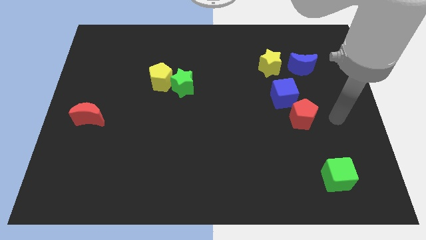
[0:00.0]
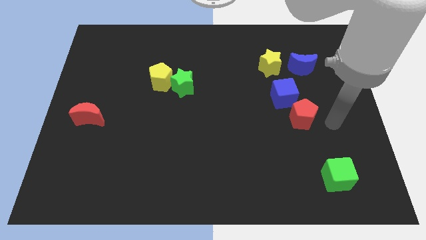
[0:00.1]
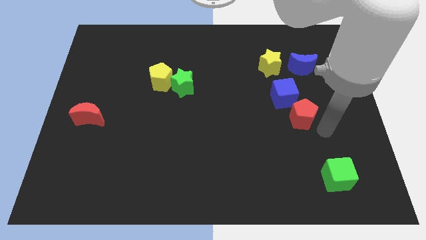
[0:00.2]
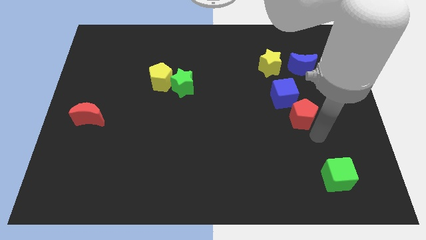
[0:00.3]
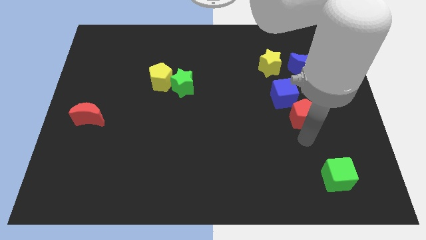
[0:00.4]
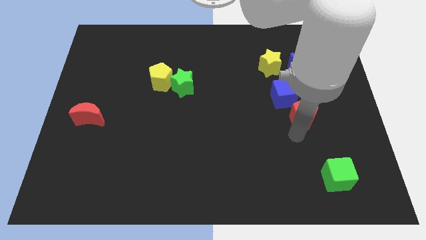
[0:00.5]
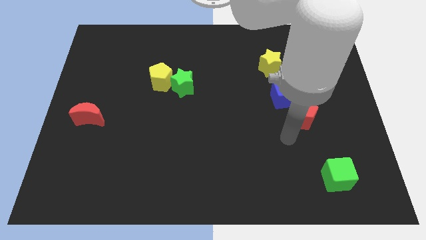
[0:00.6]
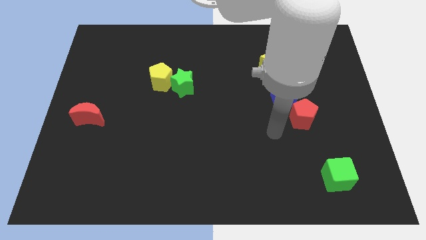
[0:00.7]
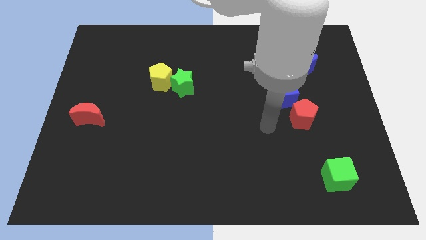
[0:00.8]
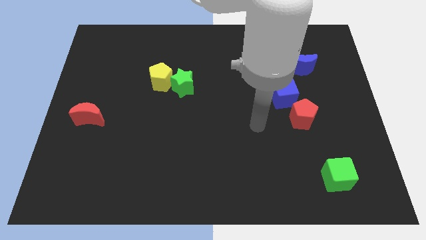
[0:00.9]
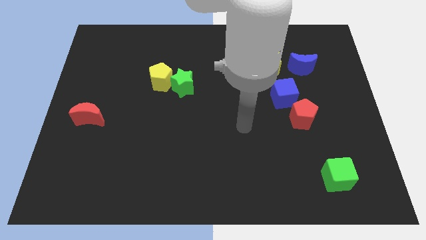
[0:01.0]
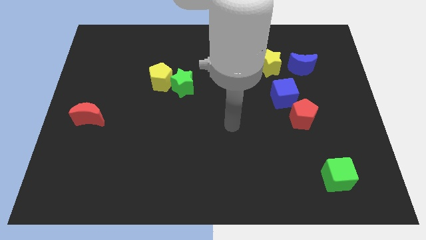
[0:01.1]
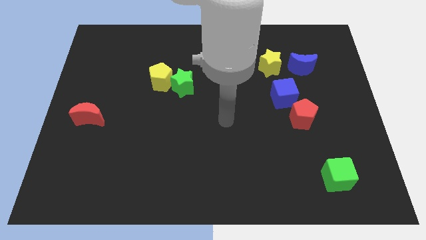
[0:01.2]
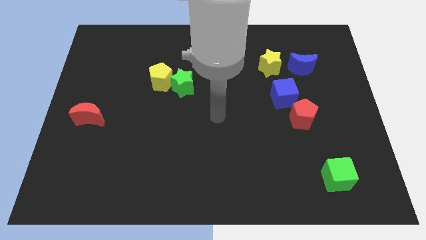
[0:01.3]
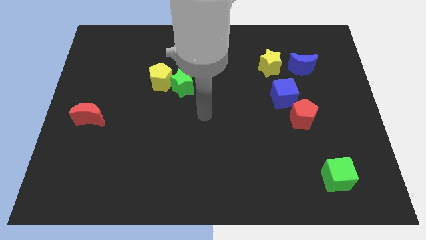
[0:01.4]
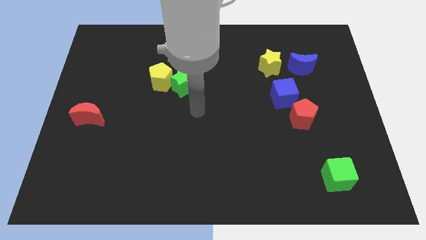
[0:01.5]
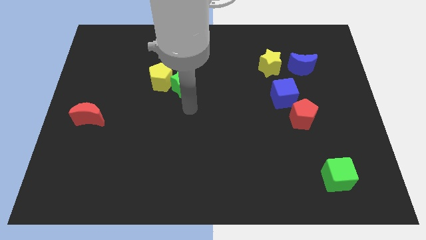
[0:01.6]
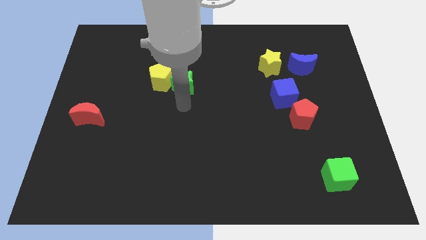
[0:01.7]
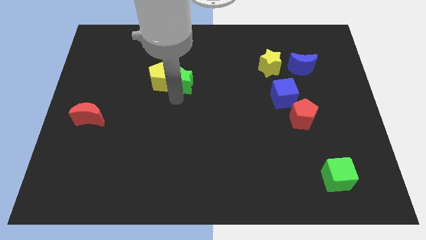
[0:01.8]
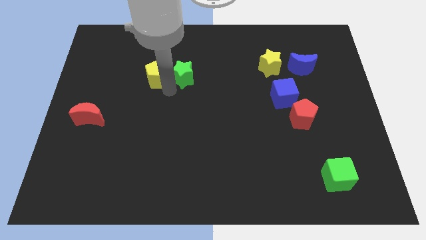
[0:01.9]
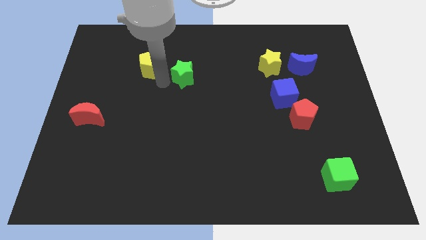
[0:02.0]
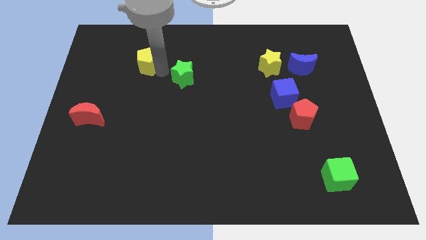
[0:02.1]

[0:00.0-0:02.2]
move the green star away from the yellow pentagon

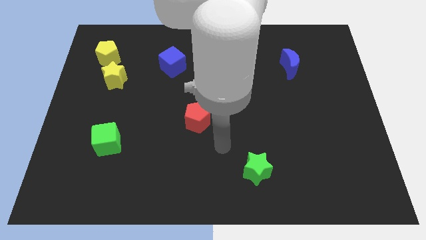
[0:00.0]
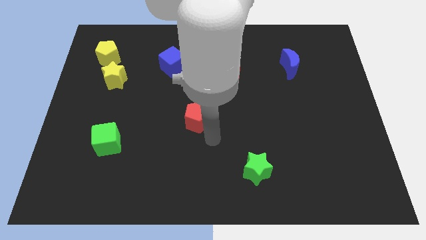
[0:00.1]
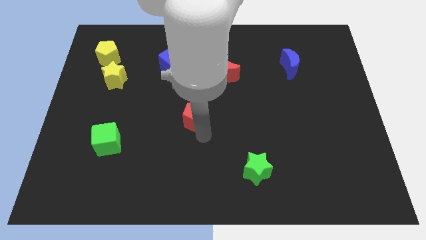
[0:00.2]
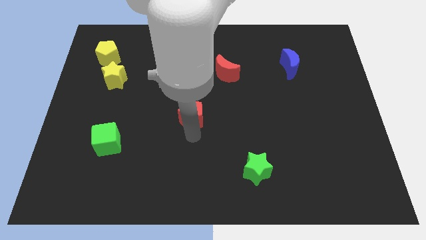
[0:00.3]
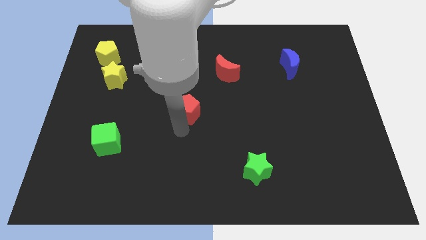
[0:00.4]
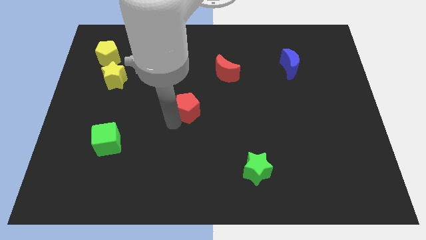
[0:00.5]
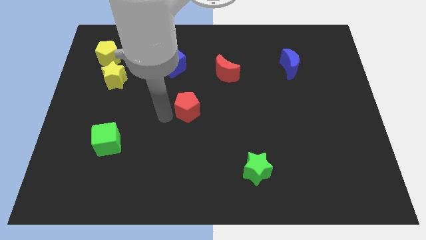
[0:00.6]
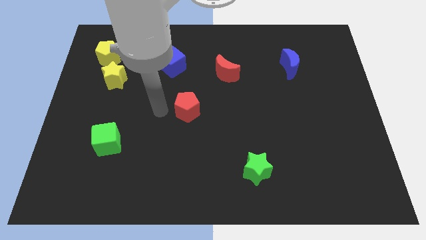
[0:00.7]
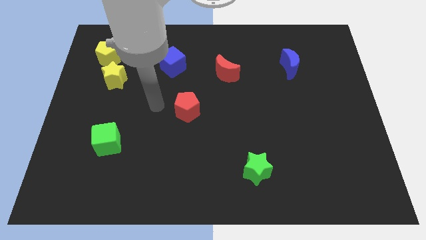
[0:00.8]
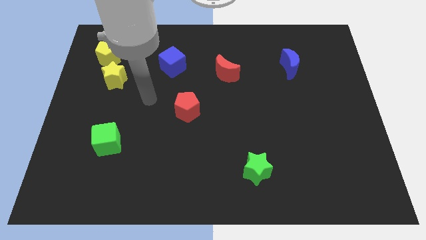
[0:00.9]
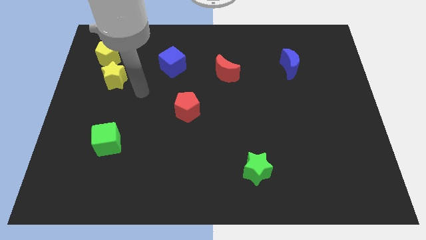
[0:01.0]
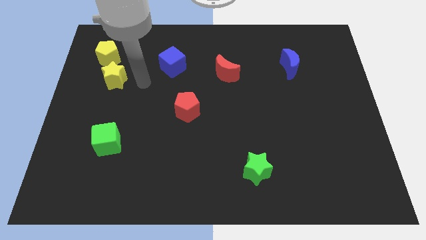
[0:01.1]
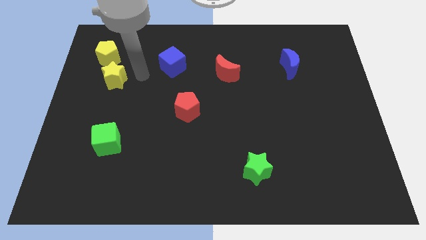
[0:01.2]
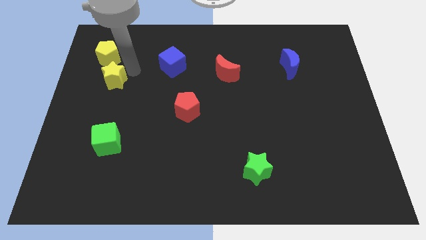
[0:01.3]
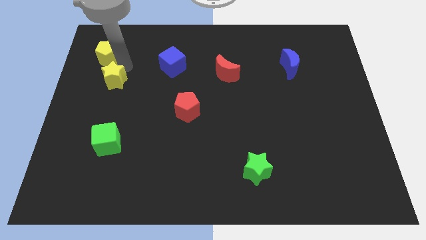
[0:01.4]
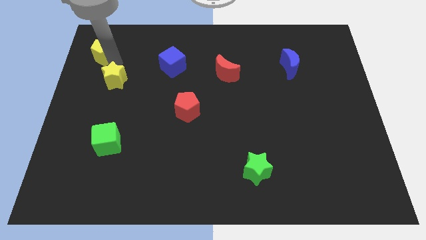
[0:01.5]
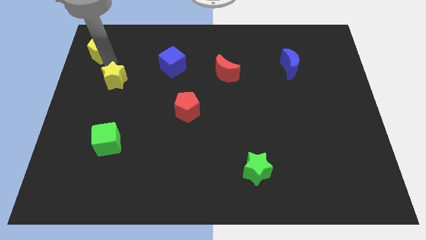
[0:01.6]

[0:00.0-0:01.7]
move the yellow star away from the yellow pentagon

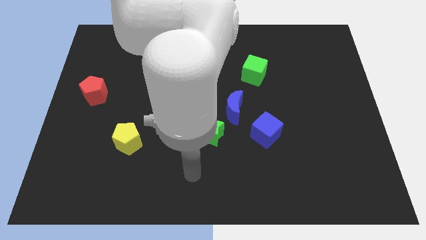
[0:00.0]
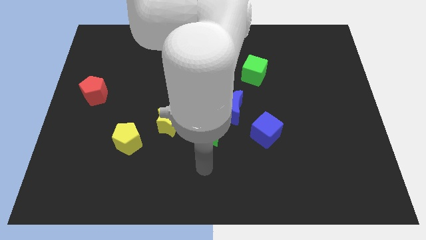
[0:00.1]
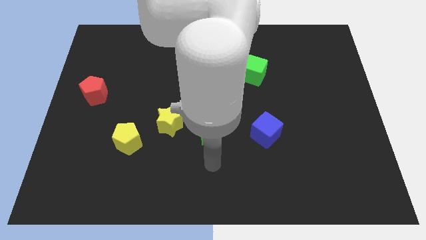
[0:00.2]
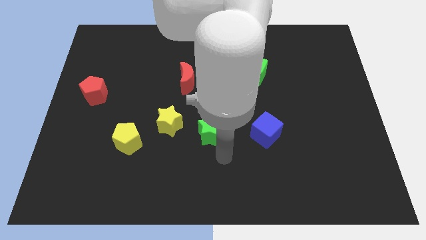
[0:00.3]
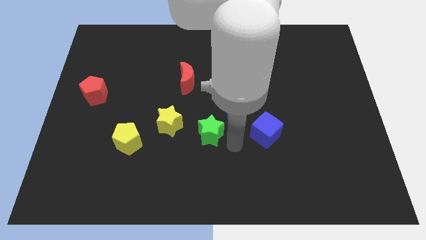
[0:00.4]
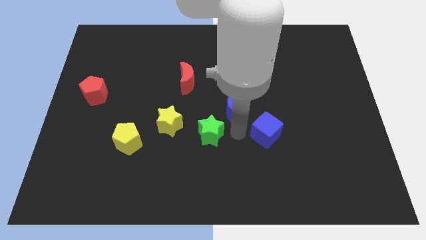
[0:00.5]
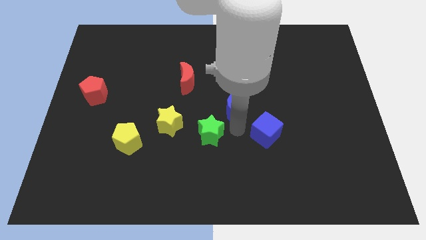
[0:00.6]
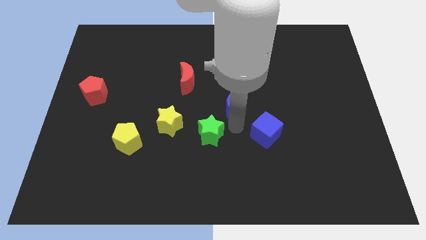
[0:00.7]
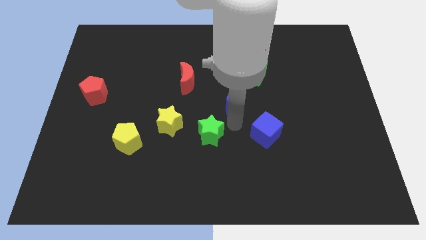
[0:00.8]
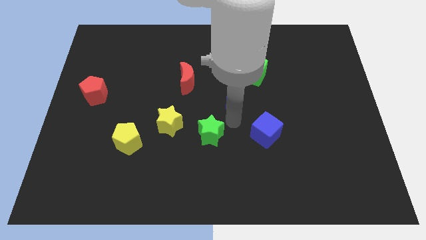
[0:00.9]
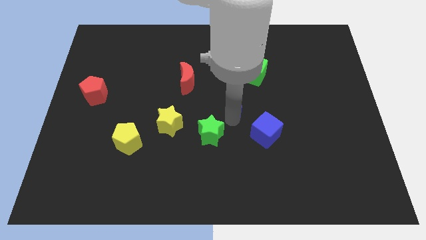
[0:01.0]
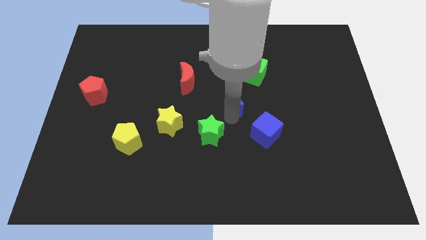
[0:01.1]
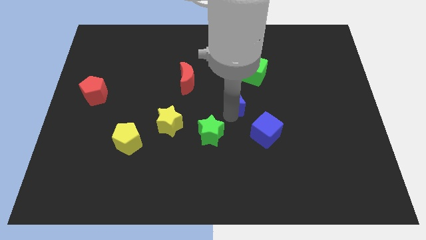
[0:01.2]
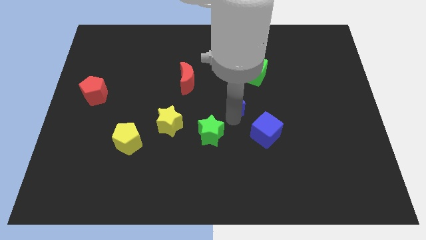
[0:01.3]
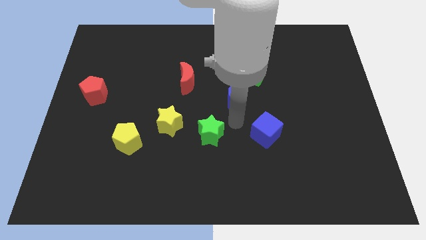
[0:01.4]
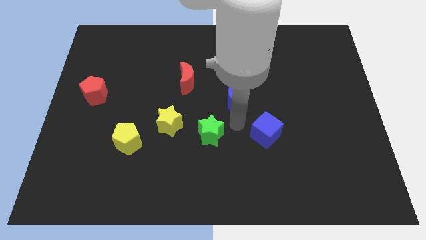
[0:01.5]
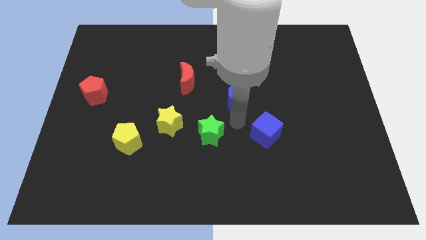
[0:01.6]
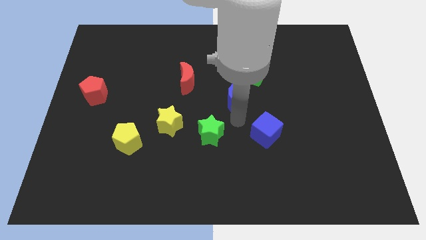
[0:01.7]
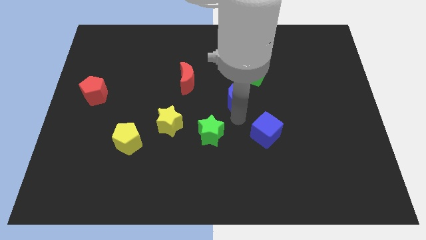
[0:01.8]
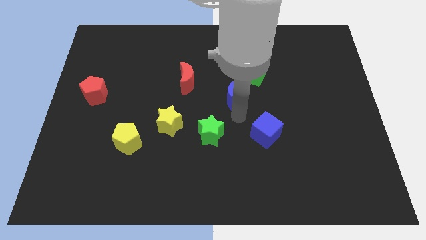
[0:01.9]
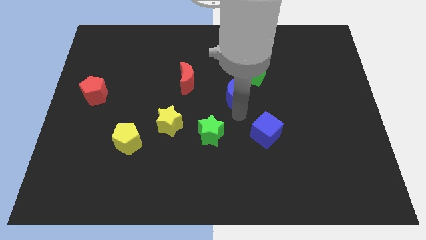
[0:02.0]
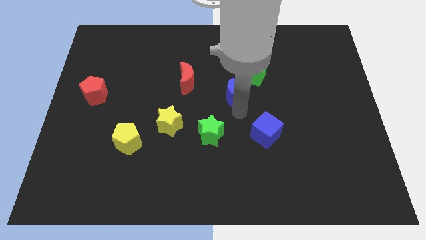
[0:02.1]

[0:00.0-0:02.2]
move the blue moon away from the green star and blue cube

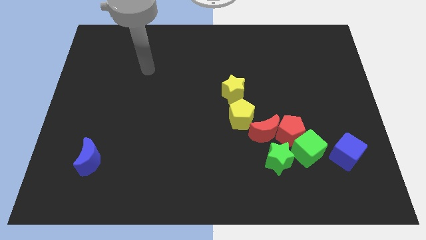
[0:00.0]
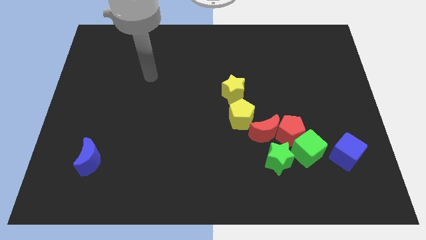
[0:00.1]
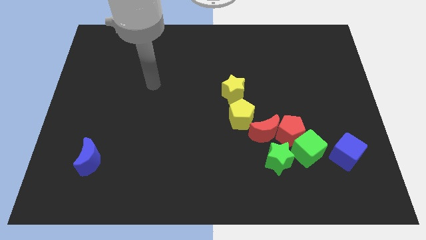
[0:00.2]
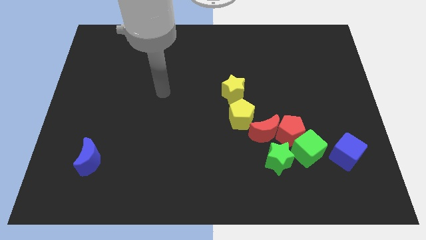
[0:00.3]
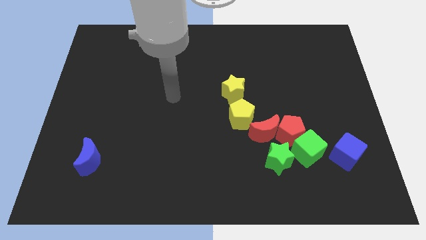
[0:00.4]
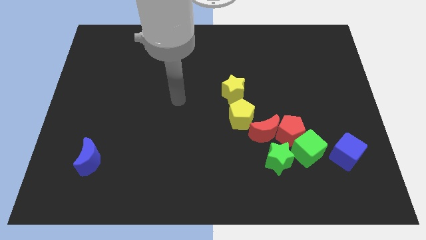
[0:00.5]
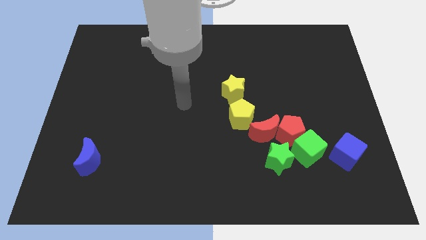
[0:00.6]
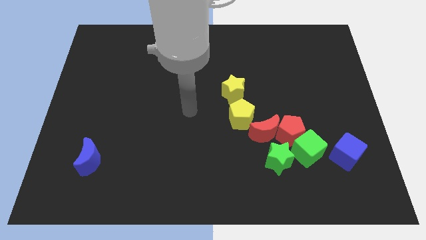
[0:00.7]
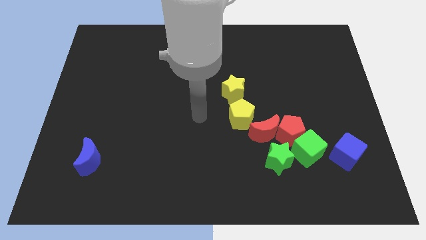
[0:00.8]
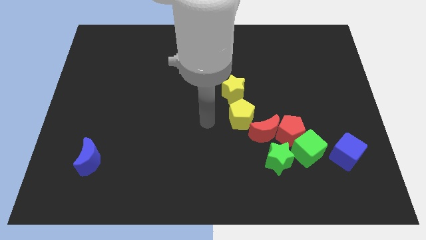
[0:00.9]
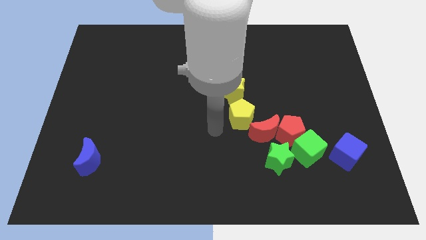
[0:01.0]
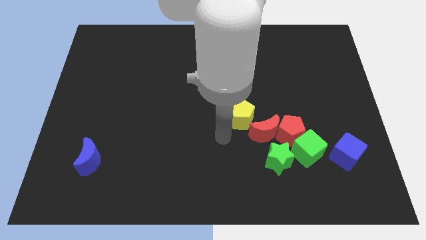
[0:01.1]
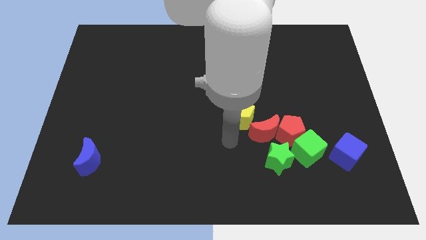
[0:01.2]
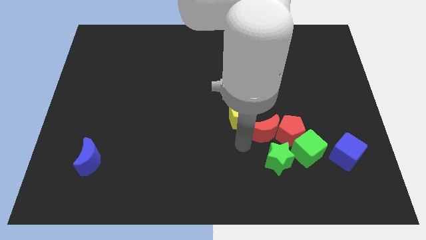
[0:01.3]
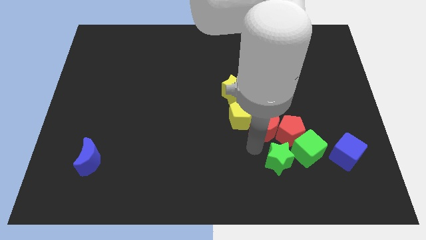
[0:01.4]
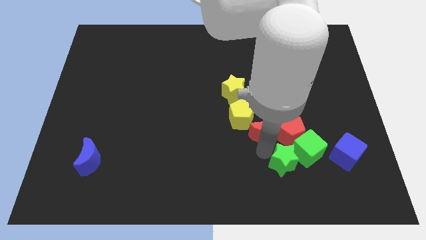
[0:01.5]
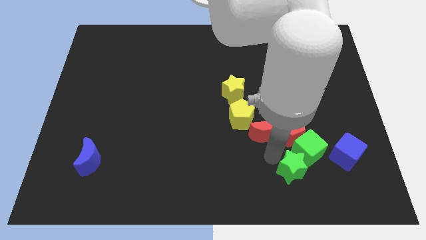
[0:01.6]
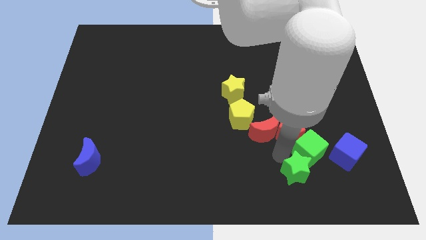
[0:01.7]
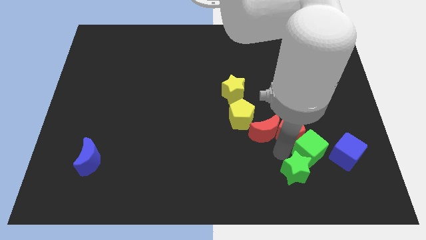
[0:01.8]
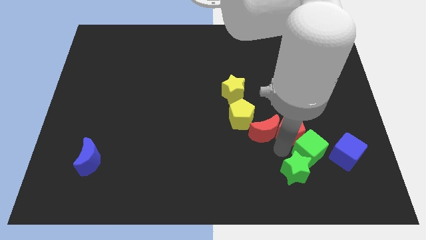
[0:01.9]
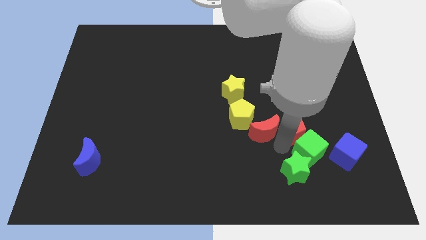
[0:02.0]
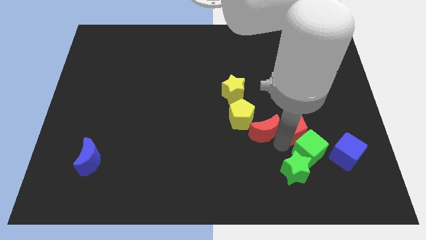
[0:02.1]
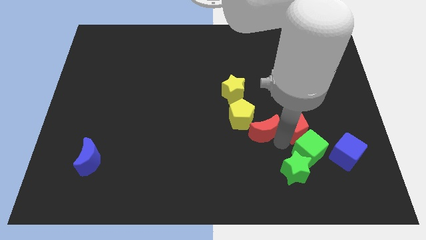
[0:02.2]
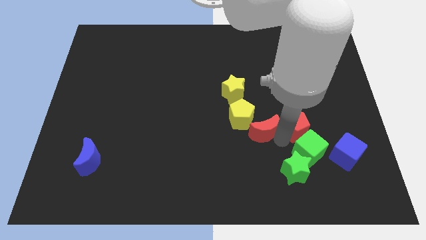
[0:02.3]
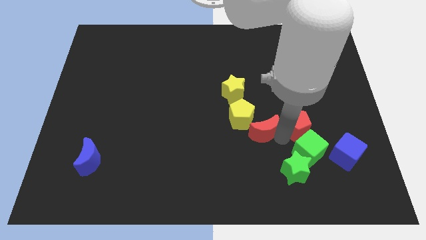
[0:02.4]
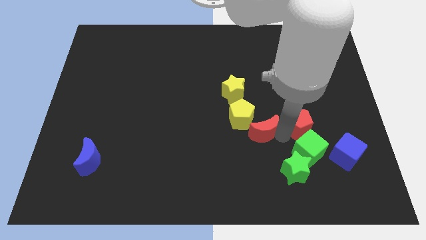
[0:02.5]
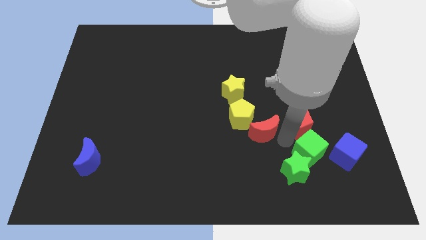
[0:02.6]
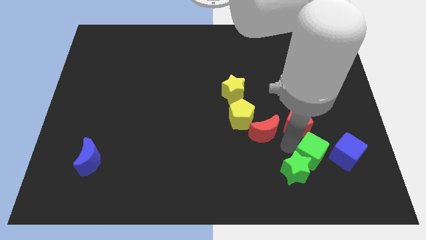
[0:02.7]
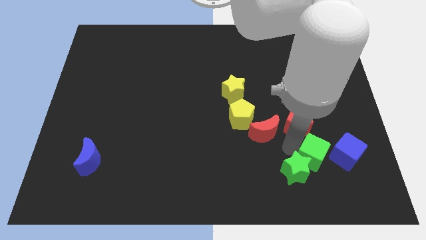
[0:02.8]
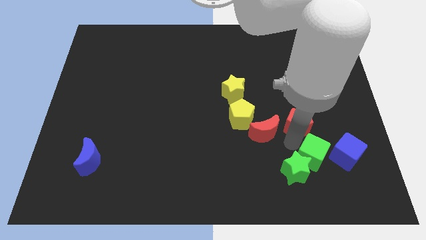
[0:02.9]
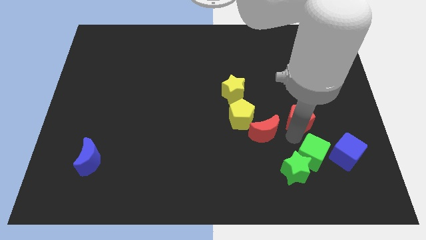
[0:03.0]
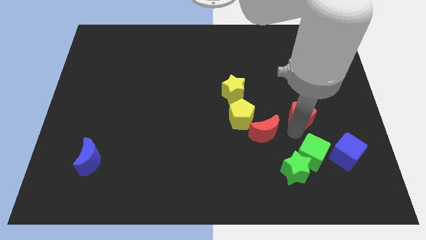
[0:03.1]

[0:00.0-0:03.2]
separate the red pentagon from the group of blocks

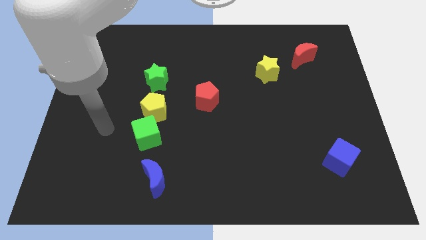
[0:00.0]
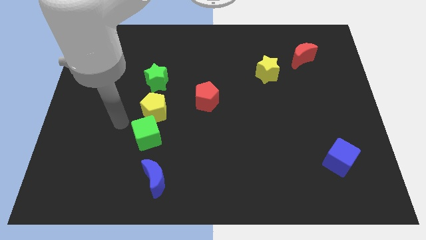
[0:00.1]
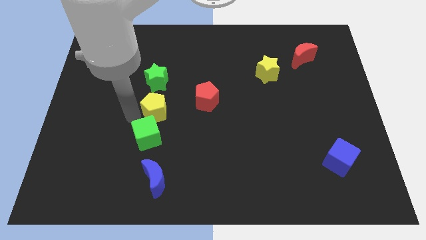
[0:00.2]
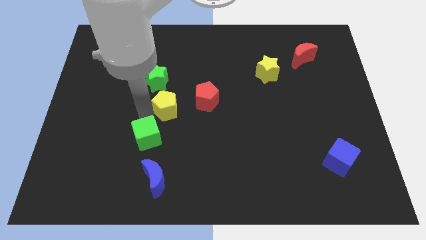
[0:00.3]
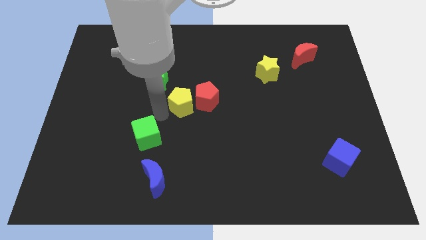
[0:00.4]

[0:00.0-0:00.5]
pull the green cube apart from the yellow pentagon
